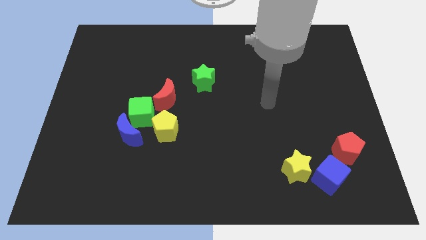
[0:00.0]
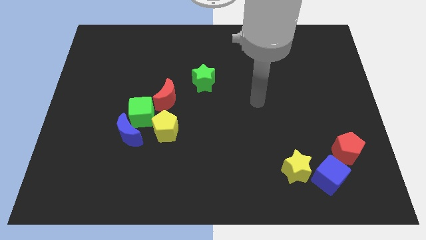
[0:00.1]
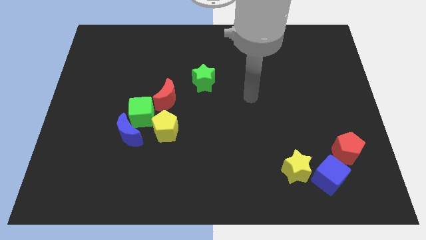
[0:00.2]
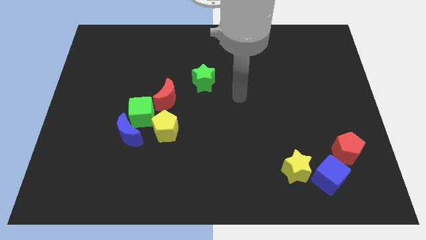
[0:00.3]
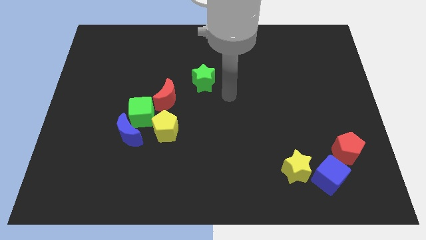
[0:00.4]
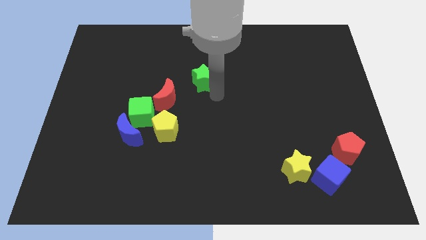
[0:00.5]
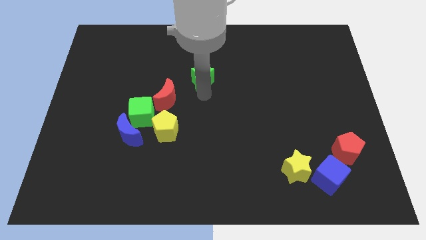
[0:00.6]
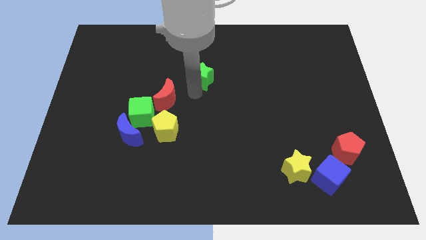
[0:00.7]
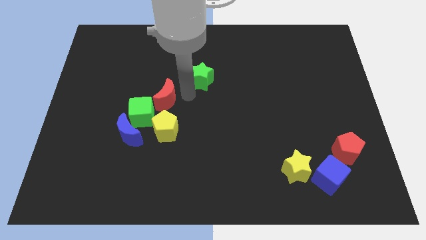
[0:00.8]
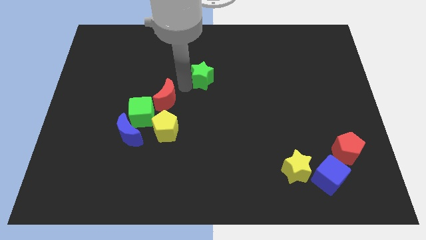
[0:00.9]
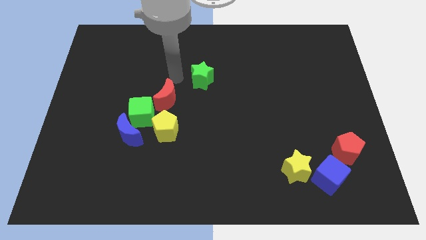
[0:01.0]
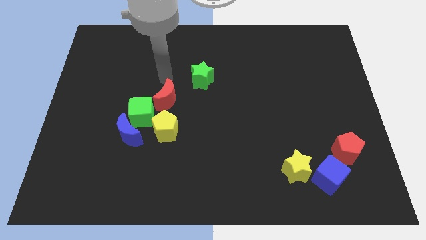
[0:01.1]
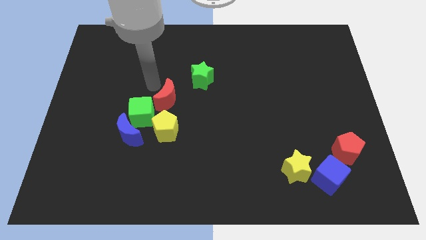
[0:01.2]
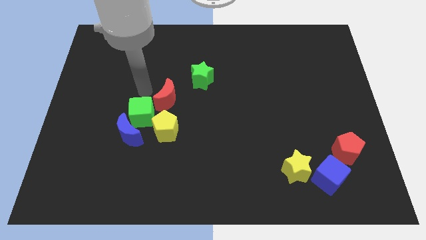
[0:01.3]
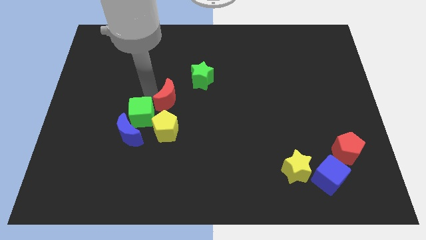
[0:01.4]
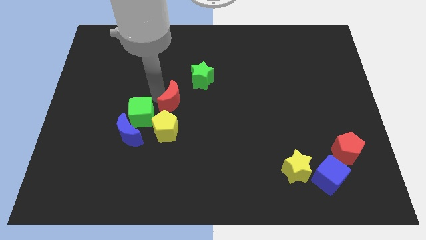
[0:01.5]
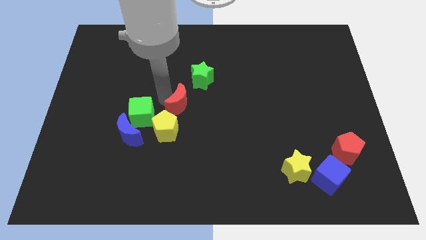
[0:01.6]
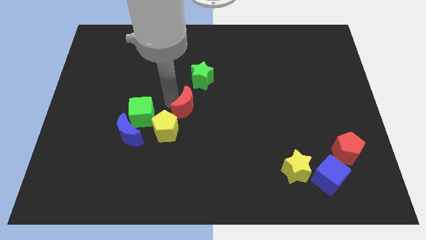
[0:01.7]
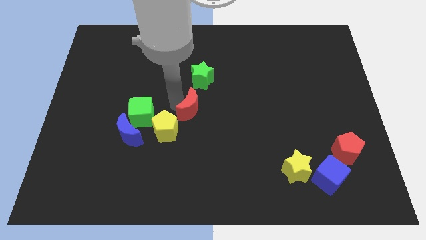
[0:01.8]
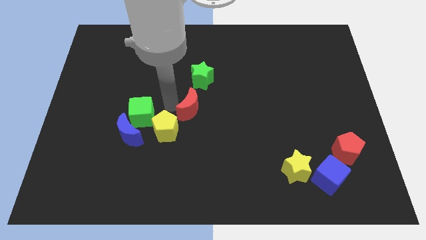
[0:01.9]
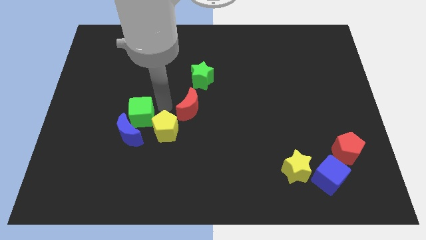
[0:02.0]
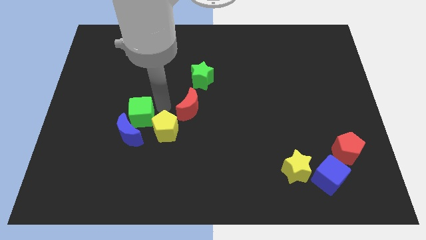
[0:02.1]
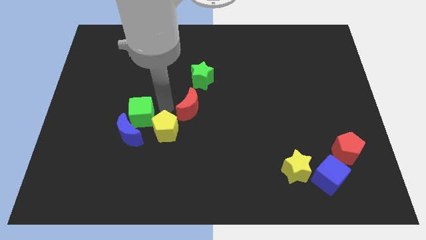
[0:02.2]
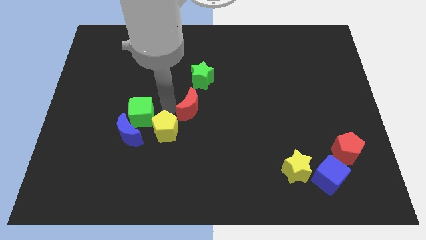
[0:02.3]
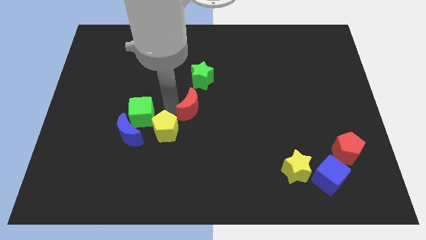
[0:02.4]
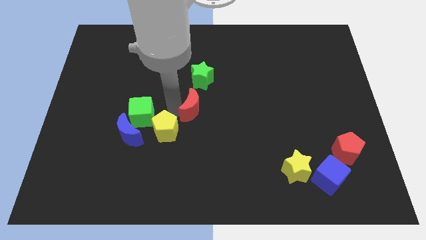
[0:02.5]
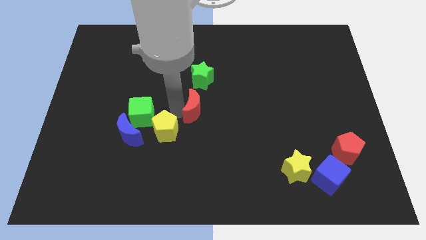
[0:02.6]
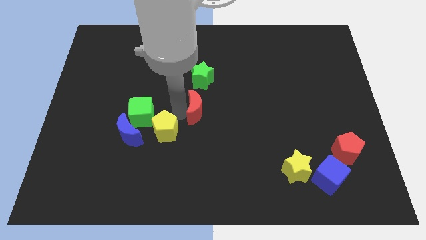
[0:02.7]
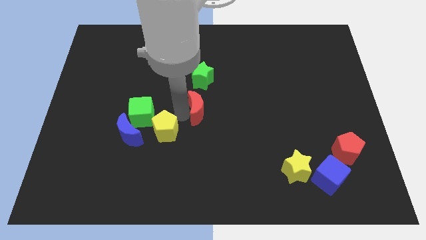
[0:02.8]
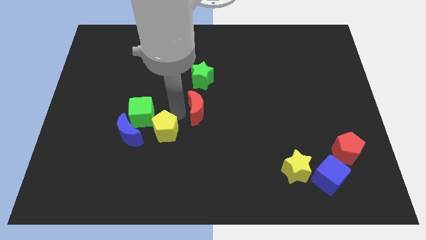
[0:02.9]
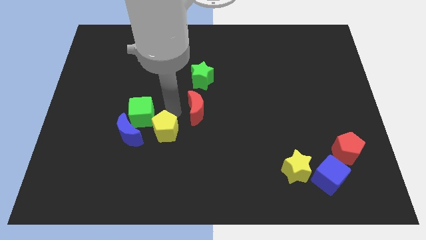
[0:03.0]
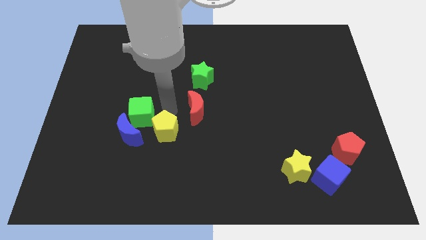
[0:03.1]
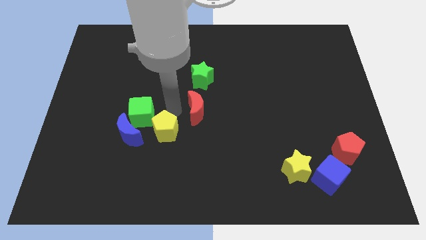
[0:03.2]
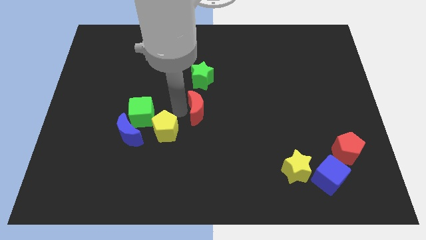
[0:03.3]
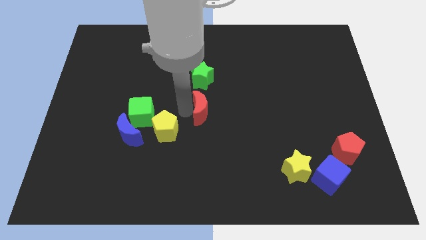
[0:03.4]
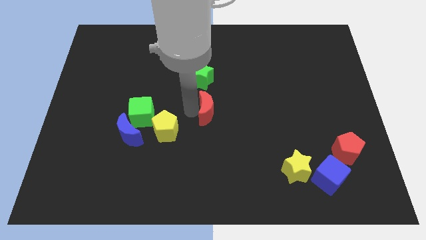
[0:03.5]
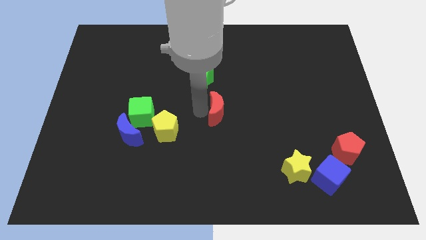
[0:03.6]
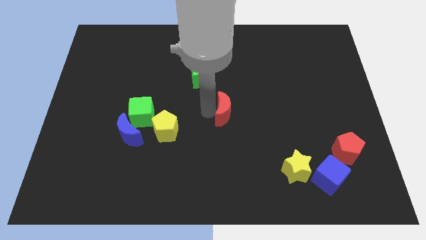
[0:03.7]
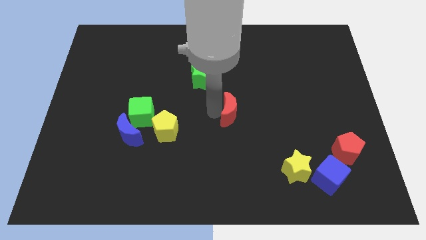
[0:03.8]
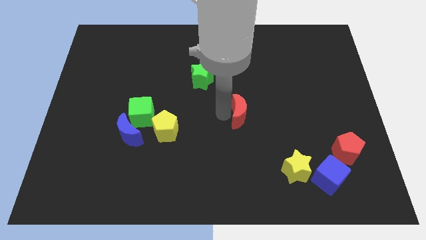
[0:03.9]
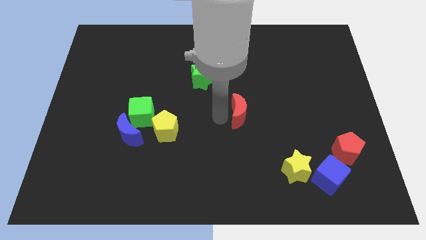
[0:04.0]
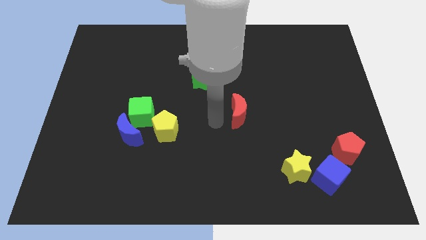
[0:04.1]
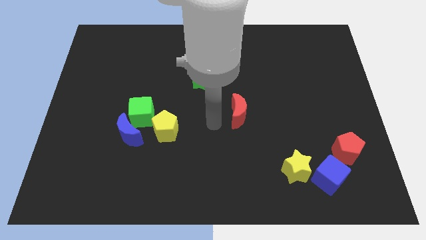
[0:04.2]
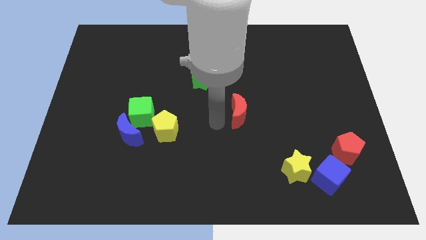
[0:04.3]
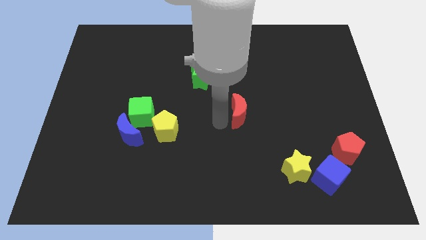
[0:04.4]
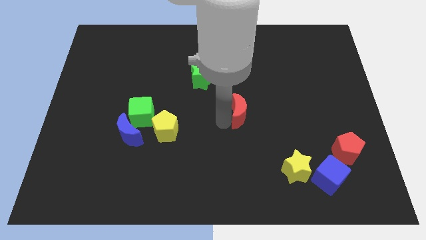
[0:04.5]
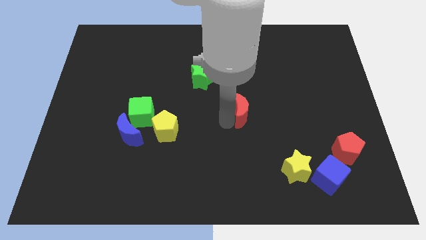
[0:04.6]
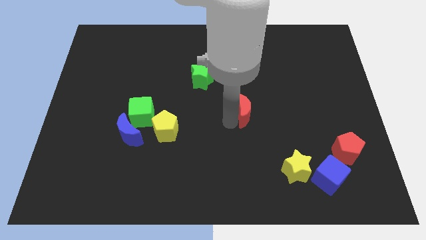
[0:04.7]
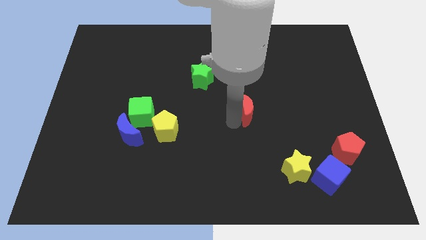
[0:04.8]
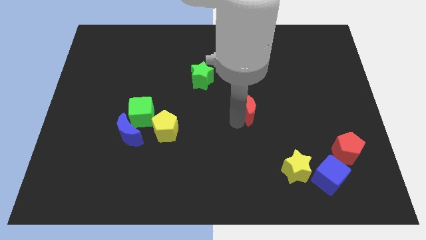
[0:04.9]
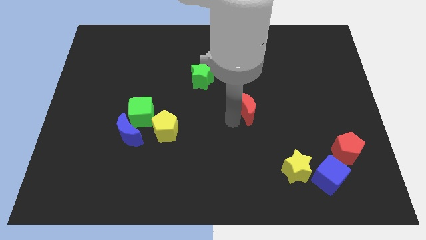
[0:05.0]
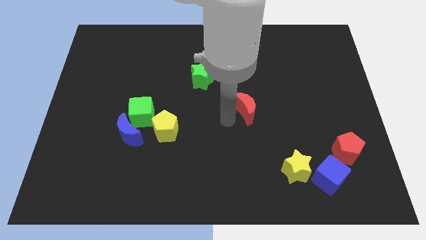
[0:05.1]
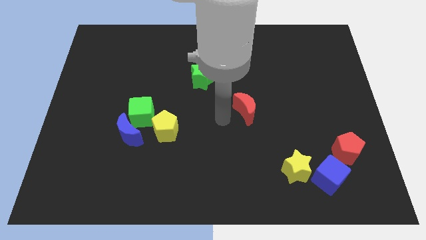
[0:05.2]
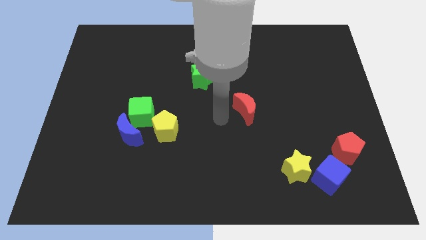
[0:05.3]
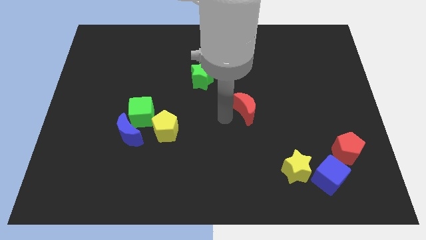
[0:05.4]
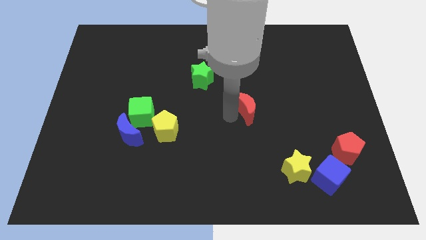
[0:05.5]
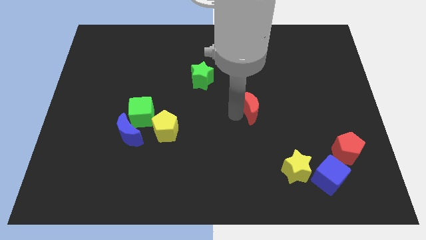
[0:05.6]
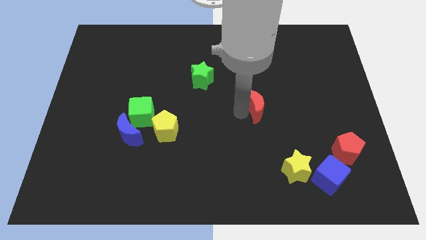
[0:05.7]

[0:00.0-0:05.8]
slide the red moon to the right

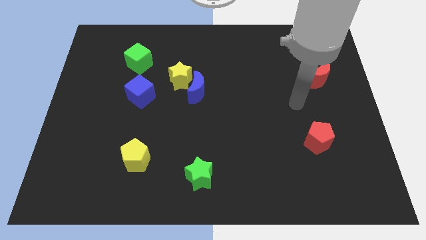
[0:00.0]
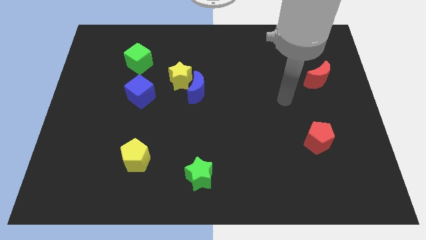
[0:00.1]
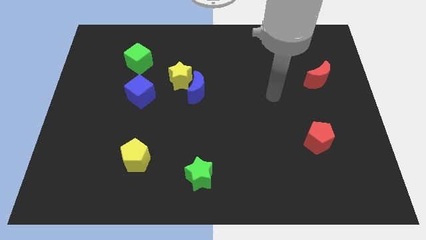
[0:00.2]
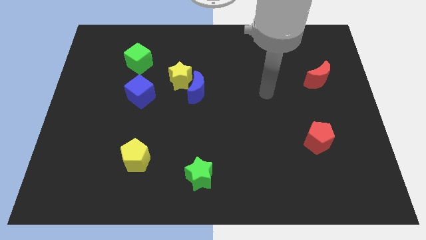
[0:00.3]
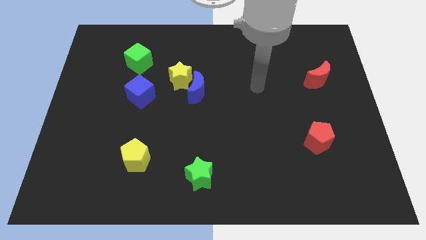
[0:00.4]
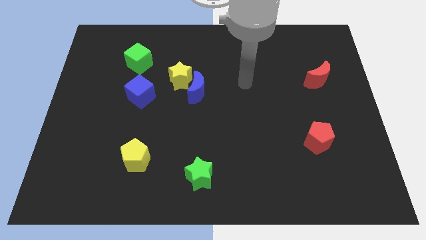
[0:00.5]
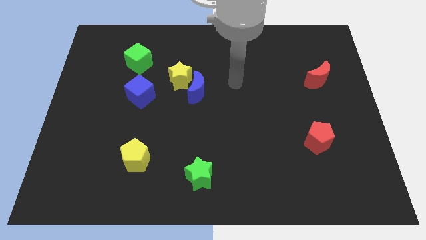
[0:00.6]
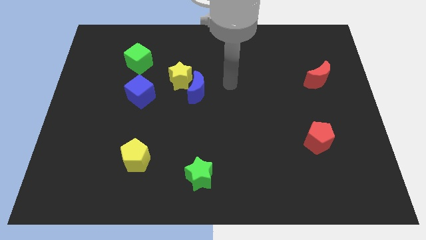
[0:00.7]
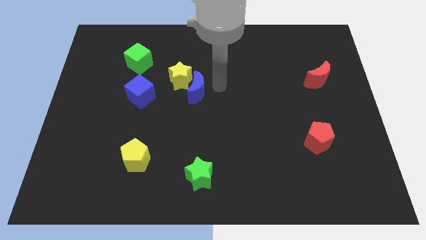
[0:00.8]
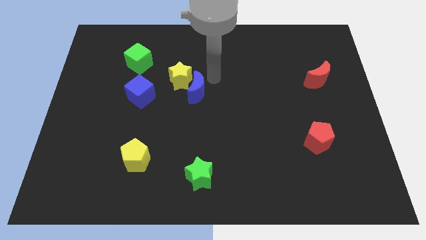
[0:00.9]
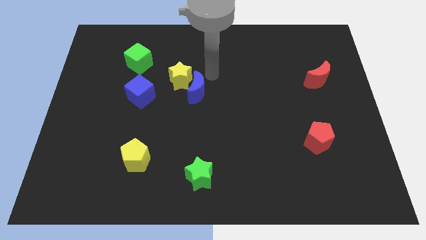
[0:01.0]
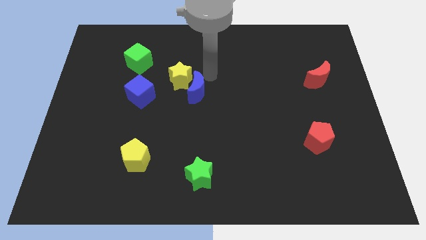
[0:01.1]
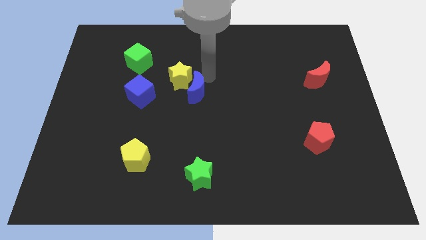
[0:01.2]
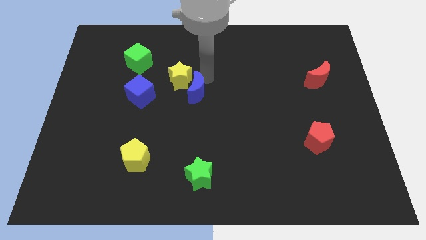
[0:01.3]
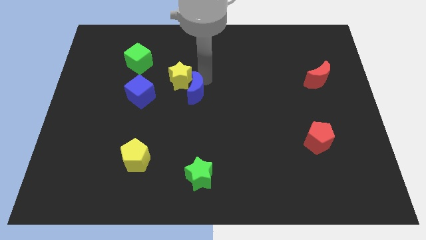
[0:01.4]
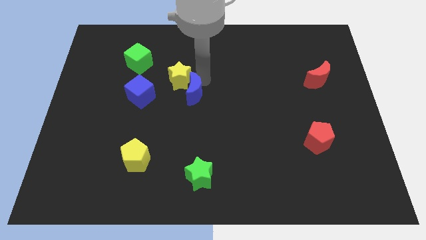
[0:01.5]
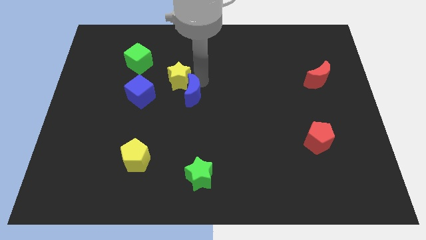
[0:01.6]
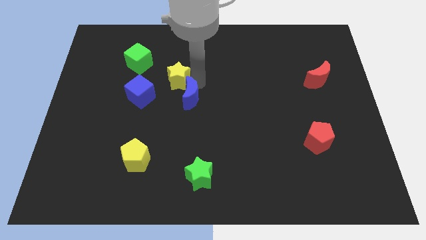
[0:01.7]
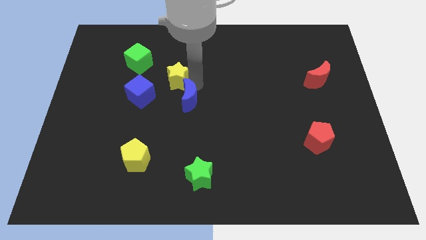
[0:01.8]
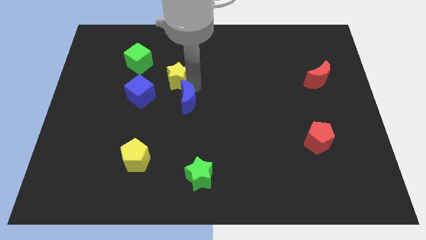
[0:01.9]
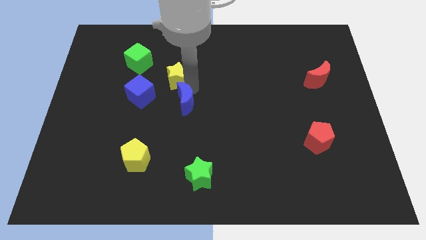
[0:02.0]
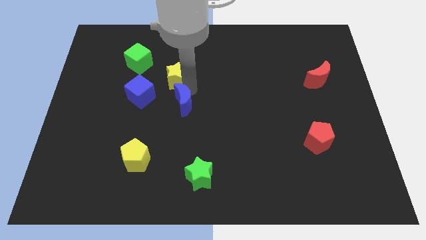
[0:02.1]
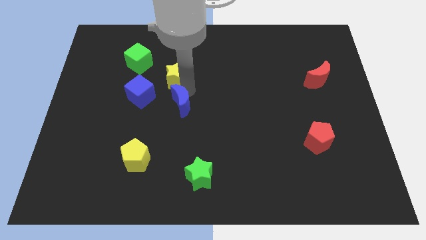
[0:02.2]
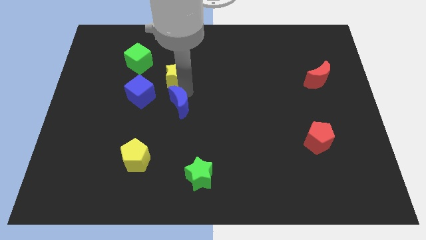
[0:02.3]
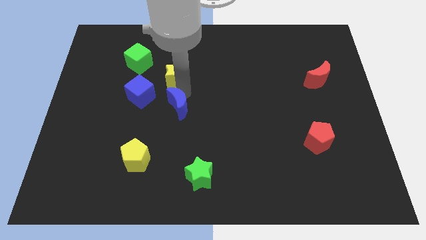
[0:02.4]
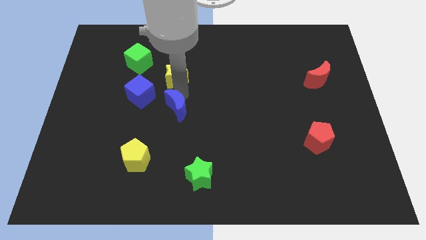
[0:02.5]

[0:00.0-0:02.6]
move the blue moon down and to the left diagonally slightly
